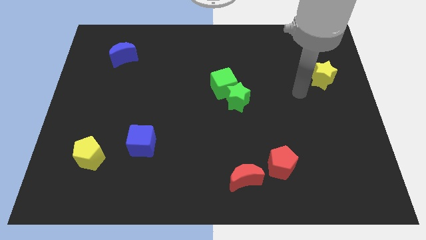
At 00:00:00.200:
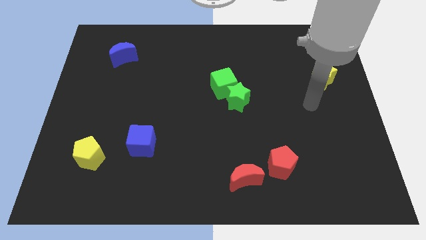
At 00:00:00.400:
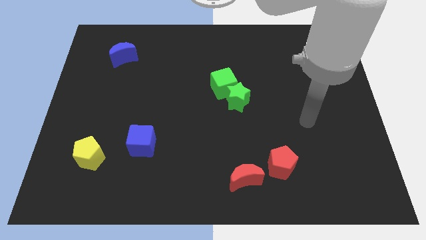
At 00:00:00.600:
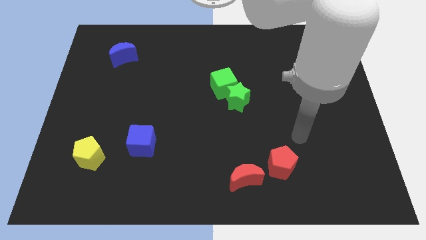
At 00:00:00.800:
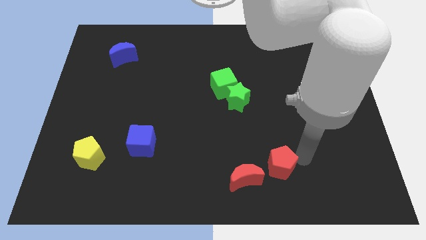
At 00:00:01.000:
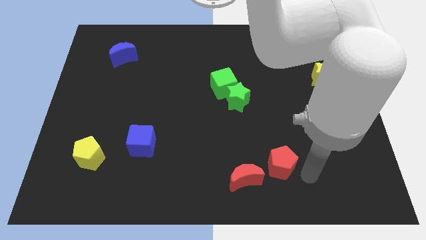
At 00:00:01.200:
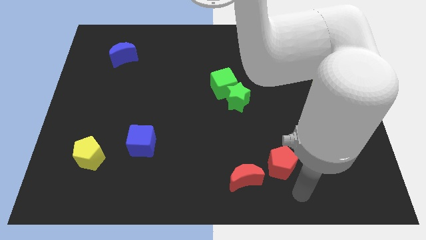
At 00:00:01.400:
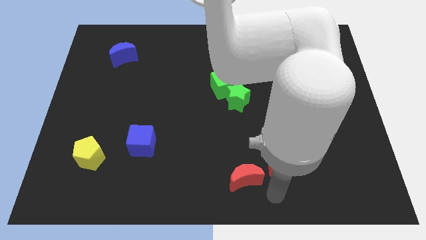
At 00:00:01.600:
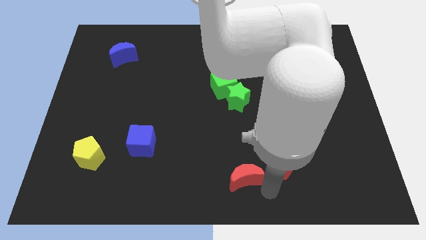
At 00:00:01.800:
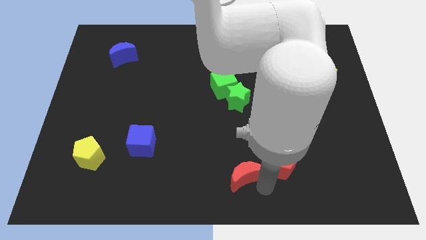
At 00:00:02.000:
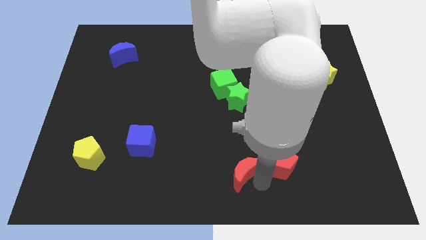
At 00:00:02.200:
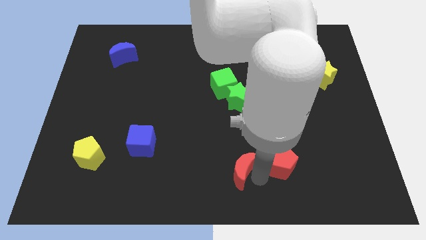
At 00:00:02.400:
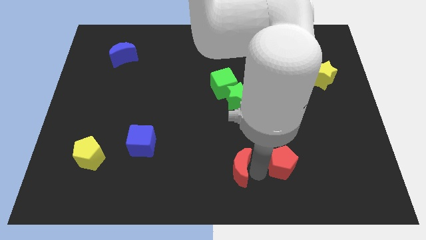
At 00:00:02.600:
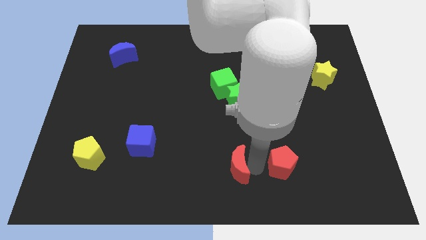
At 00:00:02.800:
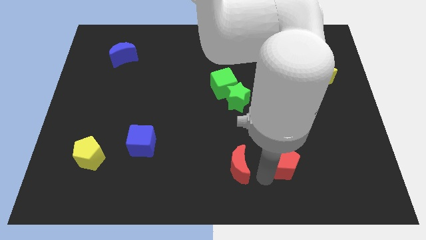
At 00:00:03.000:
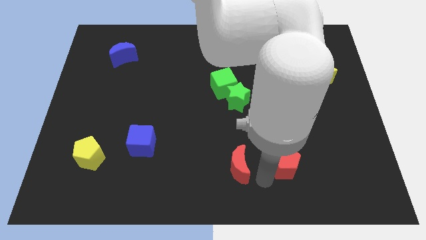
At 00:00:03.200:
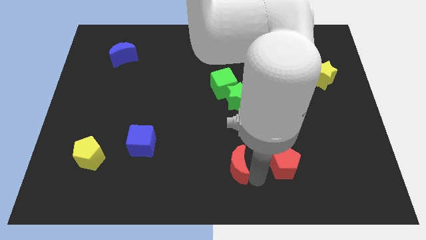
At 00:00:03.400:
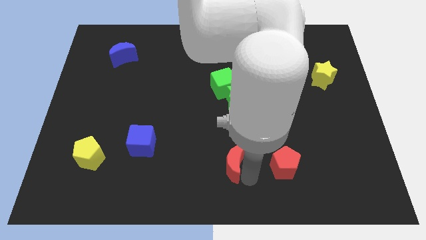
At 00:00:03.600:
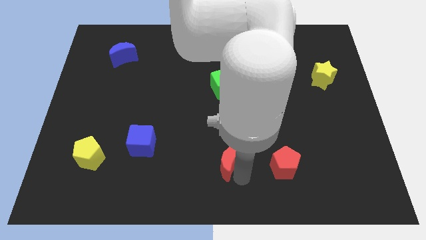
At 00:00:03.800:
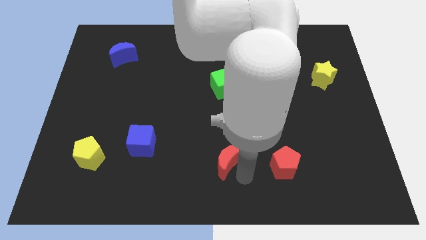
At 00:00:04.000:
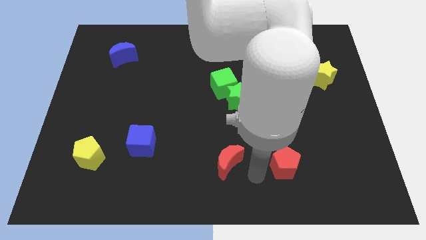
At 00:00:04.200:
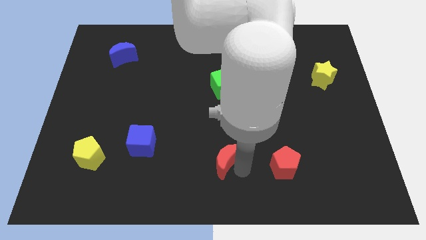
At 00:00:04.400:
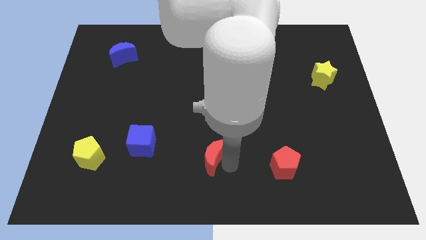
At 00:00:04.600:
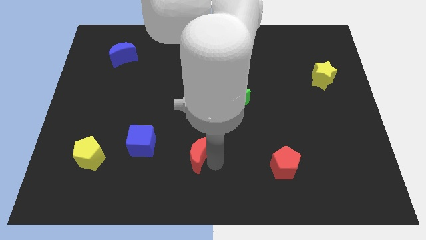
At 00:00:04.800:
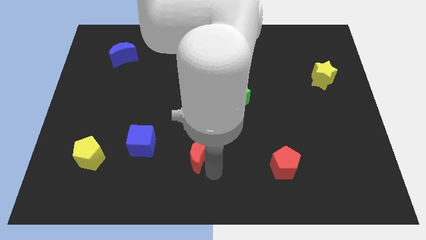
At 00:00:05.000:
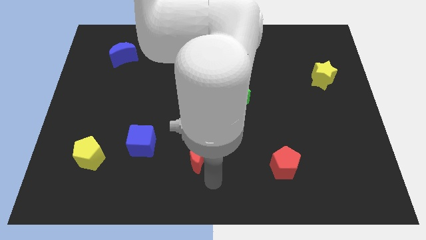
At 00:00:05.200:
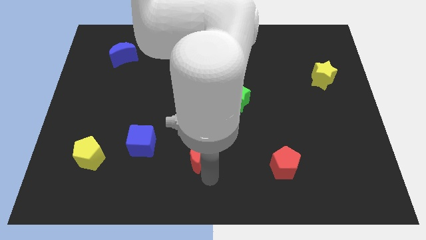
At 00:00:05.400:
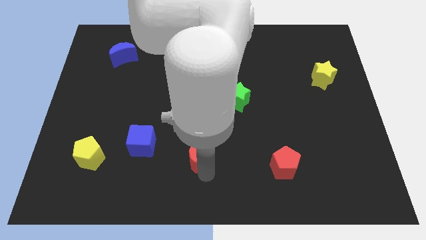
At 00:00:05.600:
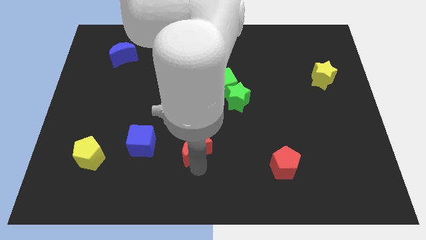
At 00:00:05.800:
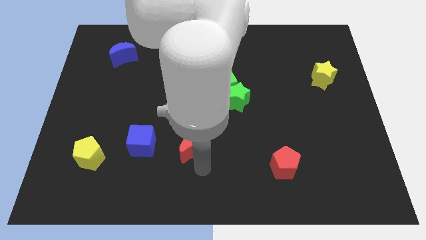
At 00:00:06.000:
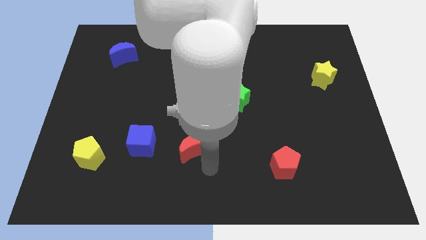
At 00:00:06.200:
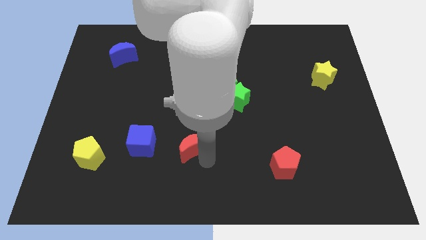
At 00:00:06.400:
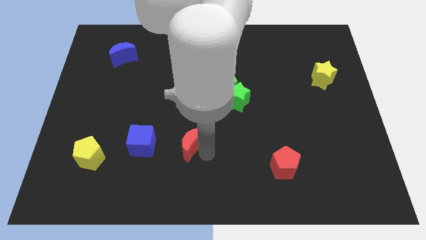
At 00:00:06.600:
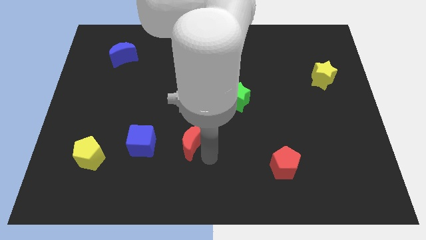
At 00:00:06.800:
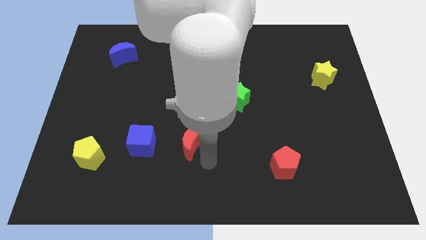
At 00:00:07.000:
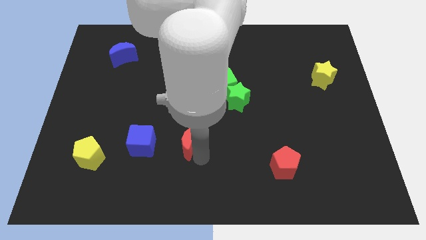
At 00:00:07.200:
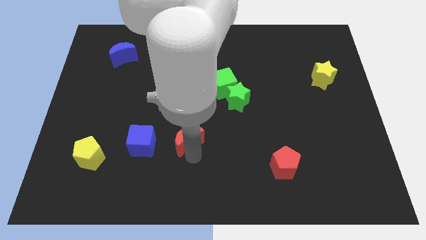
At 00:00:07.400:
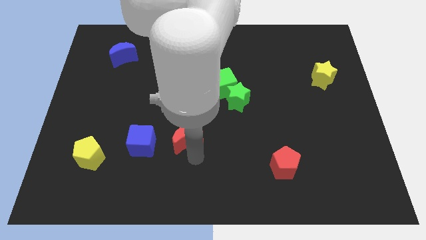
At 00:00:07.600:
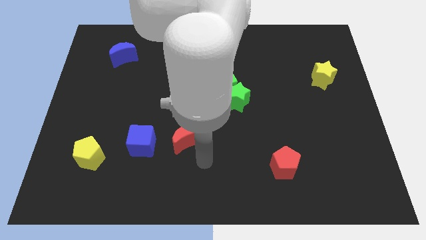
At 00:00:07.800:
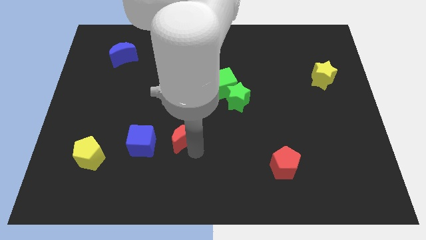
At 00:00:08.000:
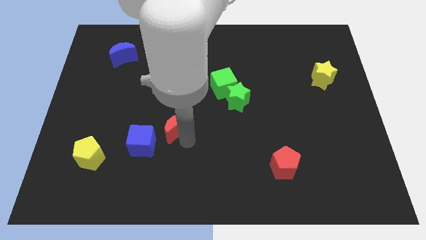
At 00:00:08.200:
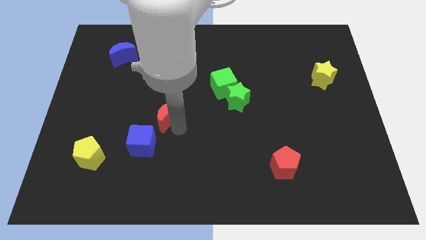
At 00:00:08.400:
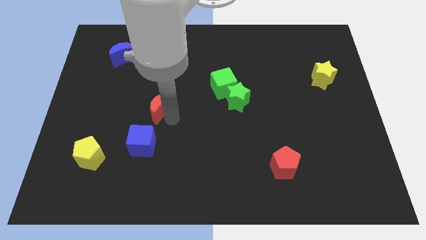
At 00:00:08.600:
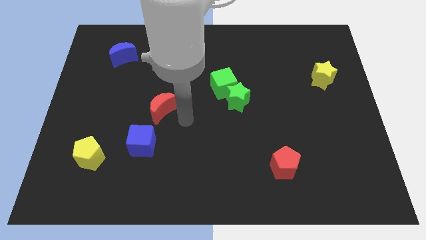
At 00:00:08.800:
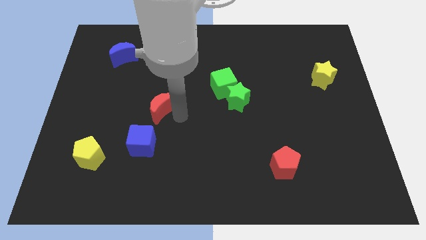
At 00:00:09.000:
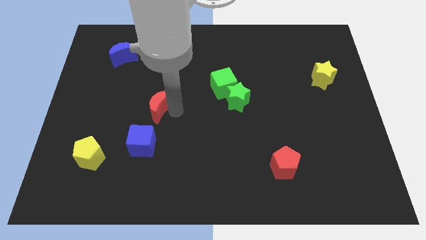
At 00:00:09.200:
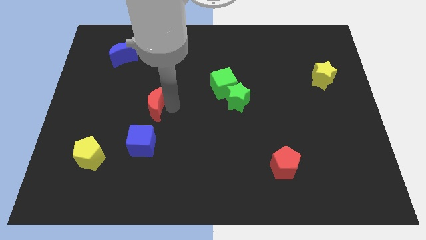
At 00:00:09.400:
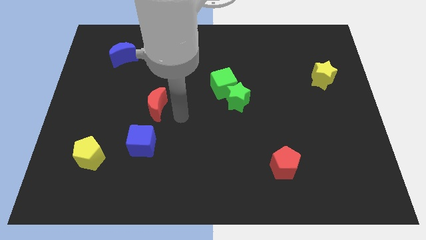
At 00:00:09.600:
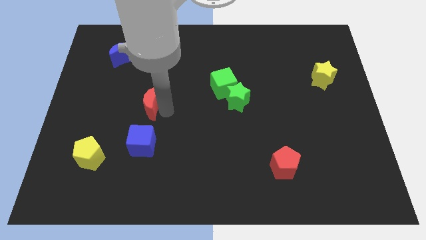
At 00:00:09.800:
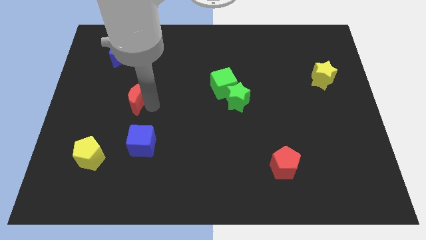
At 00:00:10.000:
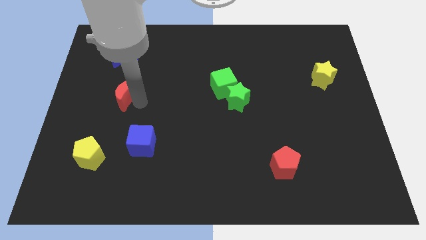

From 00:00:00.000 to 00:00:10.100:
put the red moon to the bottom side of the blue moon

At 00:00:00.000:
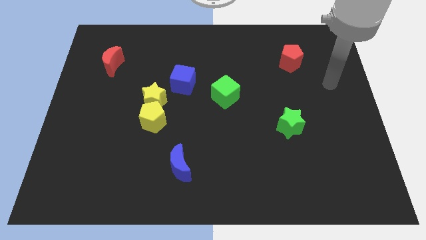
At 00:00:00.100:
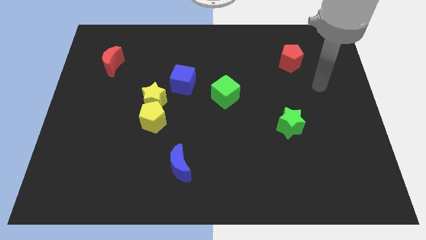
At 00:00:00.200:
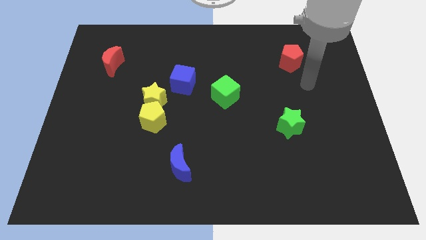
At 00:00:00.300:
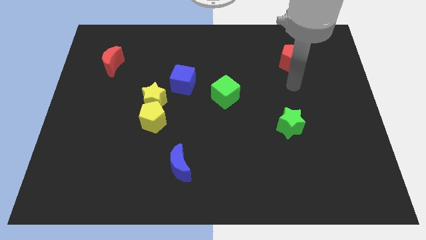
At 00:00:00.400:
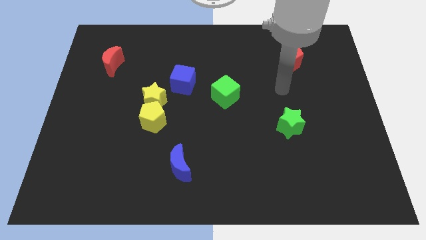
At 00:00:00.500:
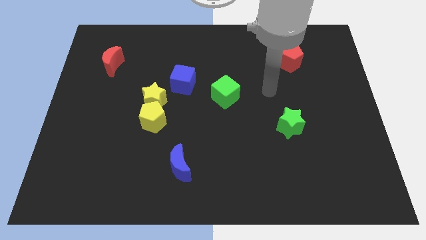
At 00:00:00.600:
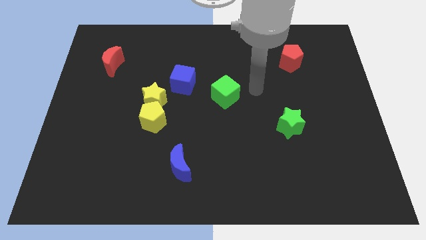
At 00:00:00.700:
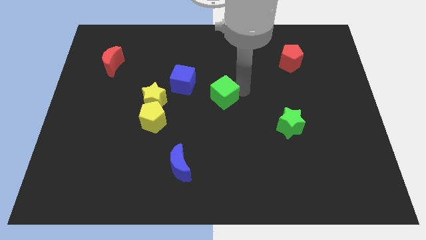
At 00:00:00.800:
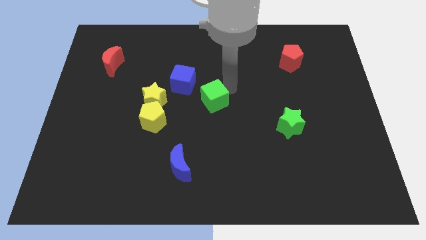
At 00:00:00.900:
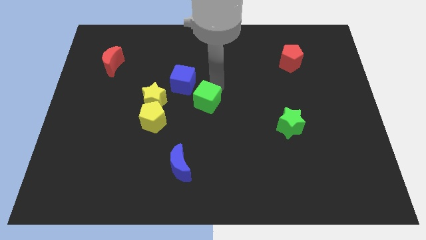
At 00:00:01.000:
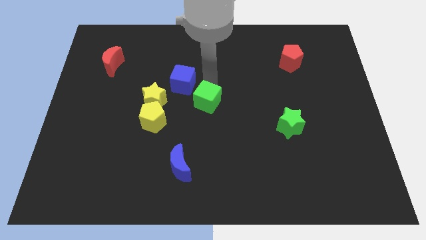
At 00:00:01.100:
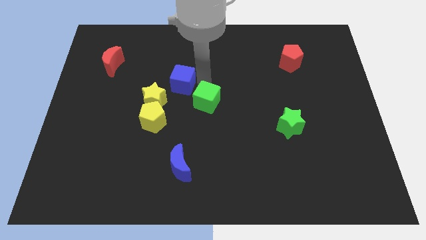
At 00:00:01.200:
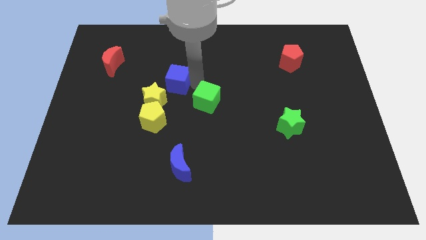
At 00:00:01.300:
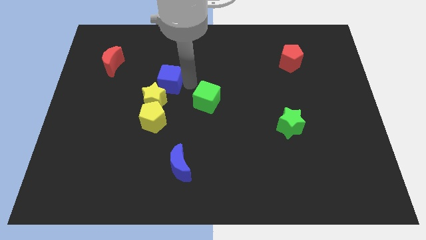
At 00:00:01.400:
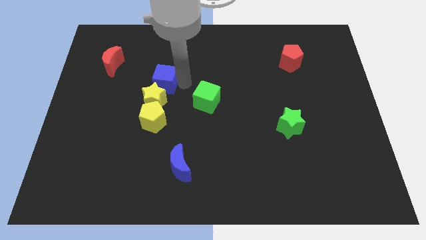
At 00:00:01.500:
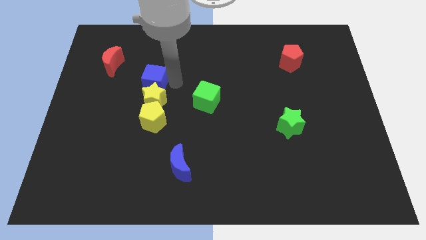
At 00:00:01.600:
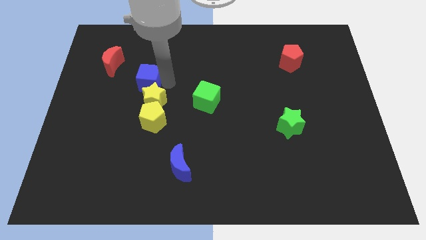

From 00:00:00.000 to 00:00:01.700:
put the blue cube to the bottom right of the red moon
